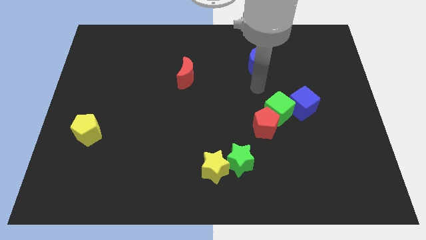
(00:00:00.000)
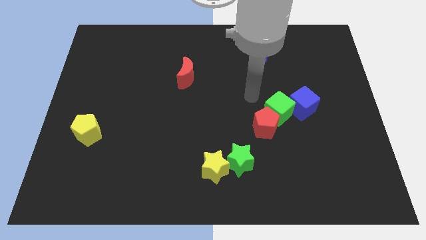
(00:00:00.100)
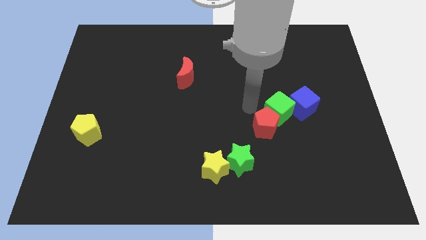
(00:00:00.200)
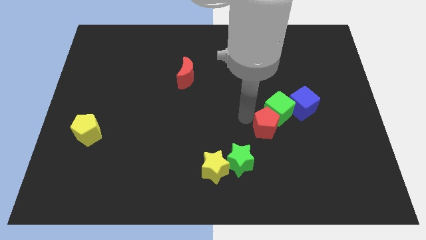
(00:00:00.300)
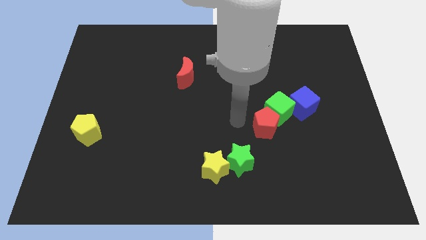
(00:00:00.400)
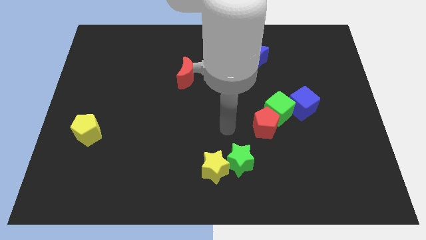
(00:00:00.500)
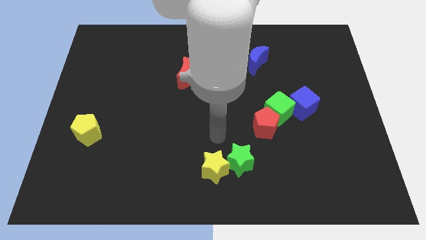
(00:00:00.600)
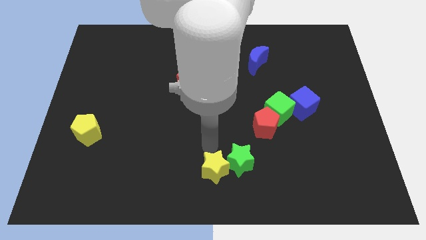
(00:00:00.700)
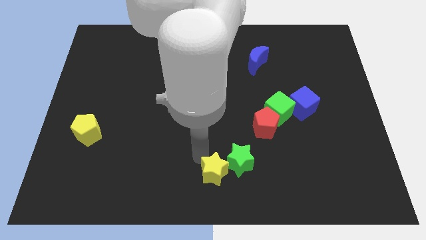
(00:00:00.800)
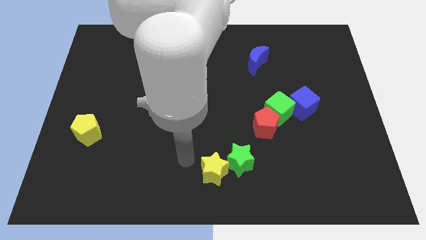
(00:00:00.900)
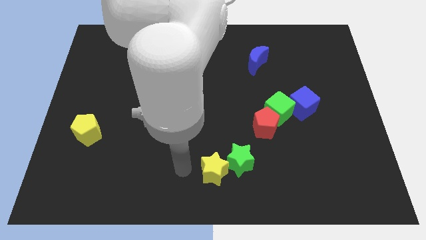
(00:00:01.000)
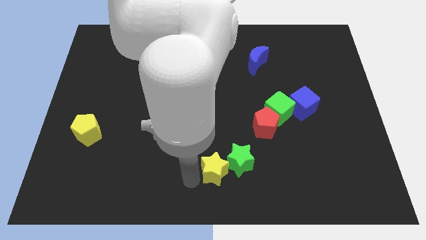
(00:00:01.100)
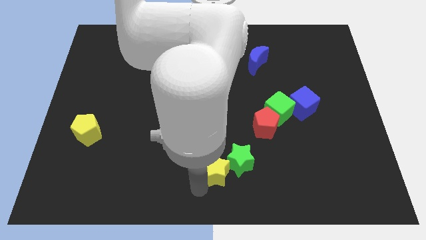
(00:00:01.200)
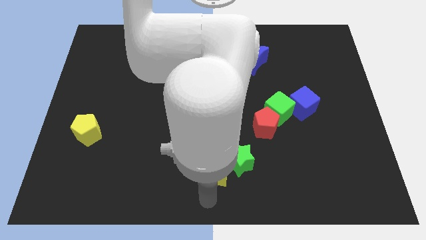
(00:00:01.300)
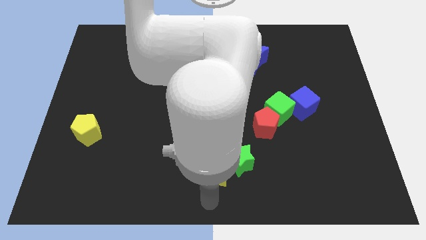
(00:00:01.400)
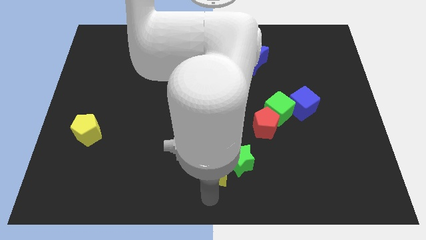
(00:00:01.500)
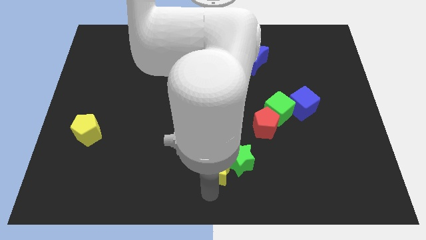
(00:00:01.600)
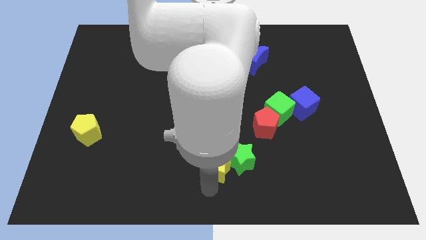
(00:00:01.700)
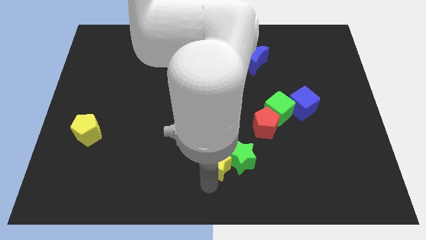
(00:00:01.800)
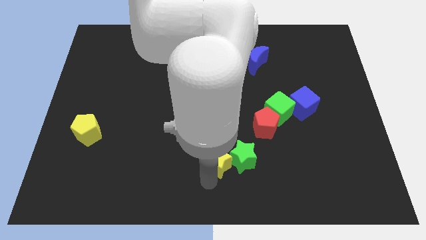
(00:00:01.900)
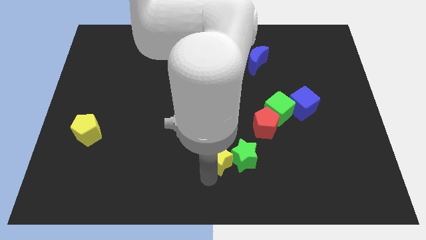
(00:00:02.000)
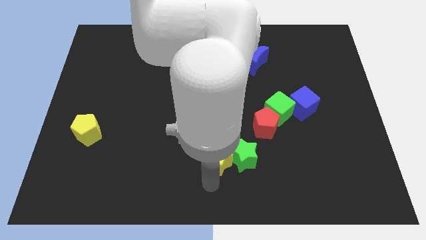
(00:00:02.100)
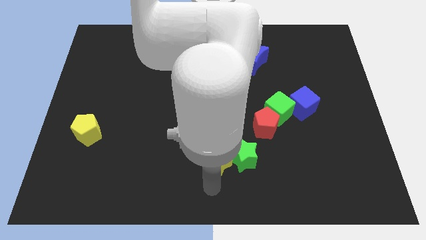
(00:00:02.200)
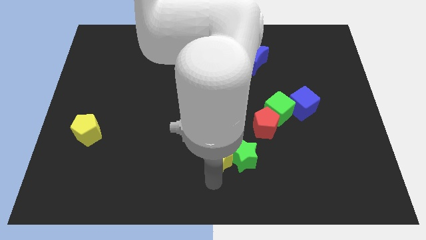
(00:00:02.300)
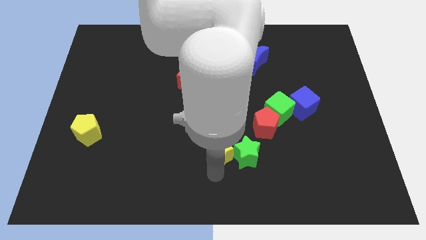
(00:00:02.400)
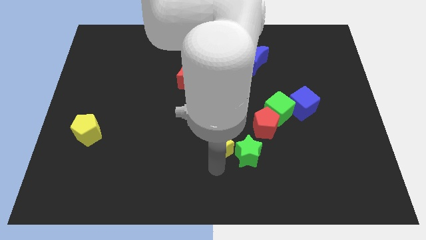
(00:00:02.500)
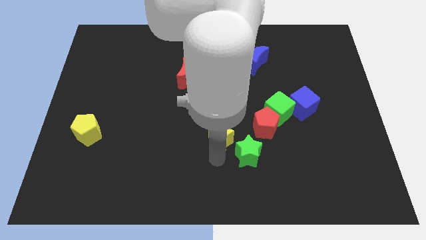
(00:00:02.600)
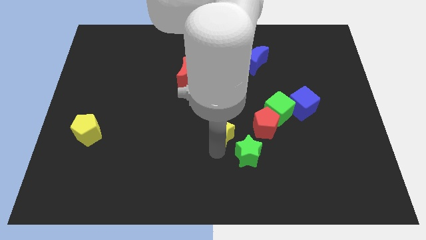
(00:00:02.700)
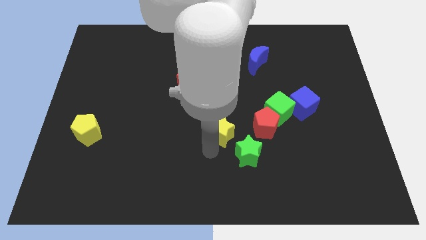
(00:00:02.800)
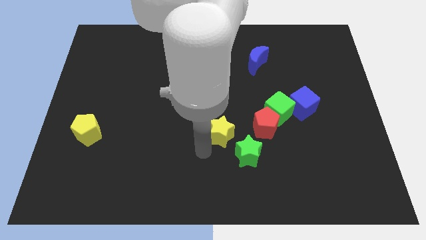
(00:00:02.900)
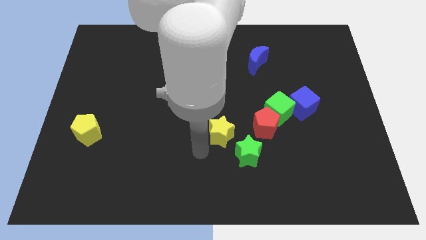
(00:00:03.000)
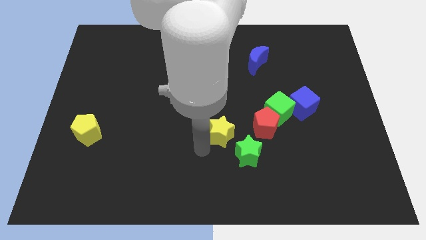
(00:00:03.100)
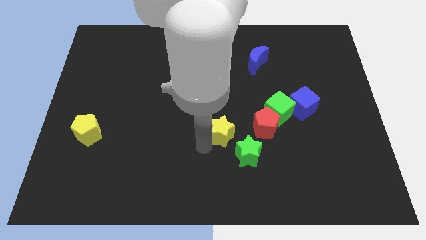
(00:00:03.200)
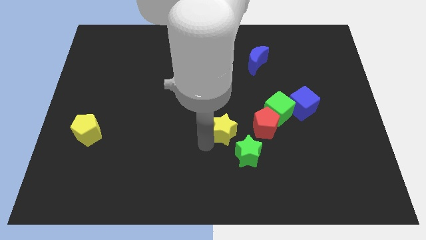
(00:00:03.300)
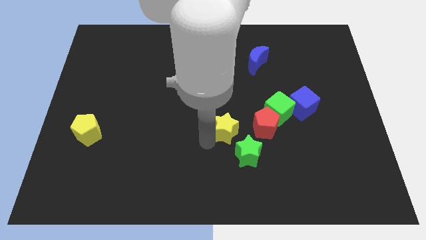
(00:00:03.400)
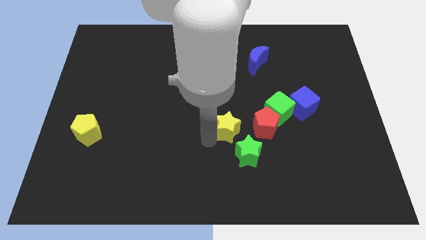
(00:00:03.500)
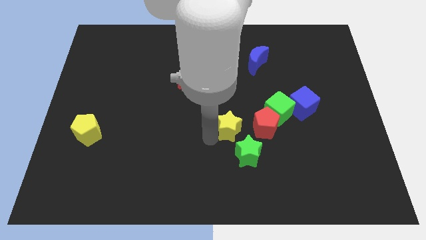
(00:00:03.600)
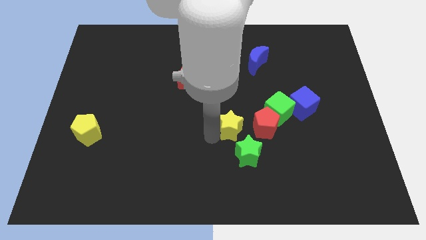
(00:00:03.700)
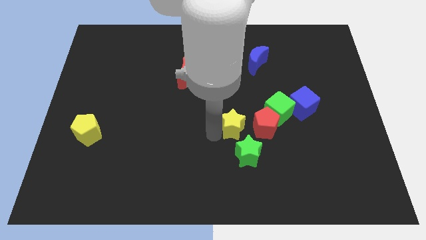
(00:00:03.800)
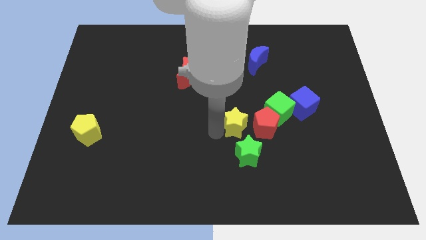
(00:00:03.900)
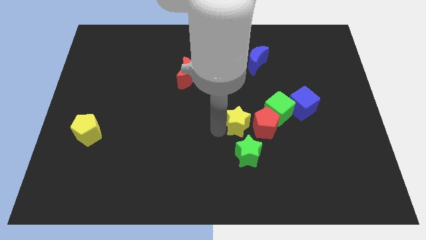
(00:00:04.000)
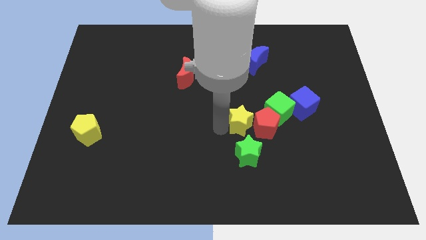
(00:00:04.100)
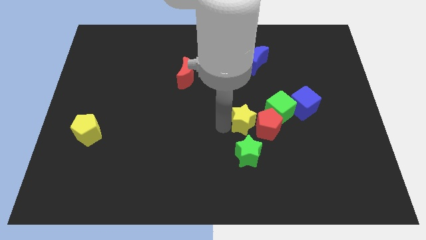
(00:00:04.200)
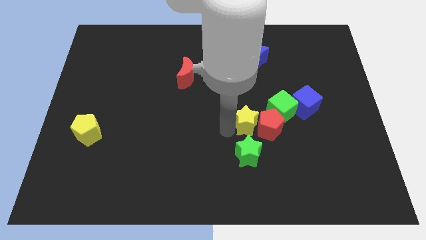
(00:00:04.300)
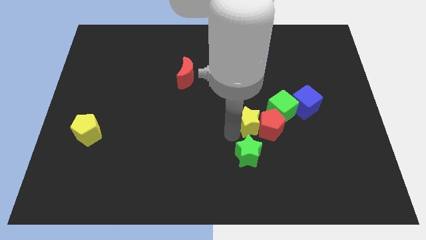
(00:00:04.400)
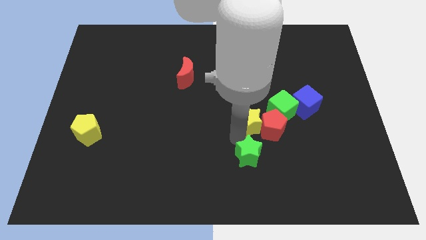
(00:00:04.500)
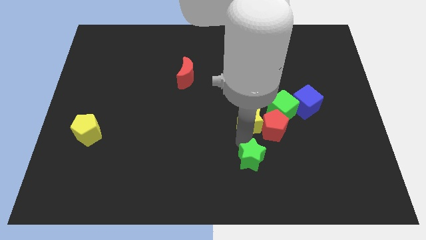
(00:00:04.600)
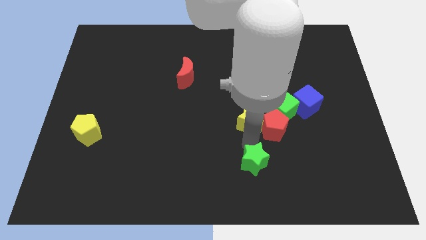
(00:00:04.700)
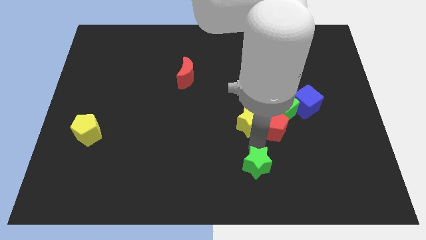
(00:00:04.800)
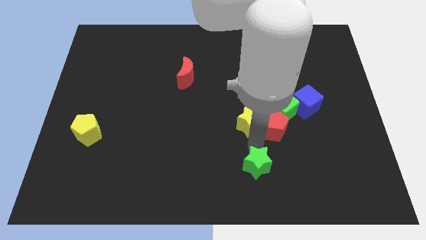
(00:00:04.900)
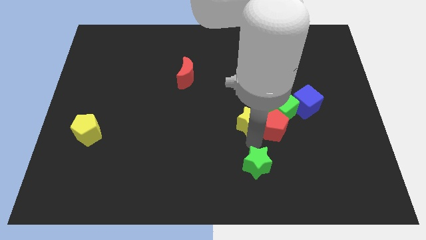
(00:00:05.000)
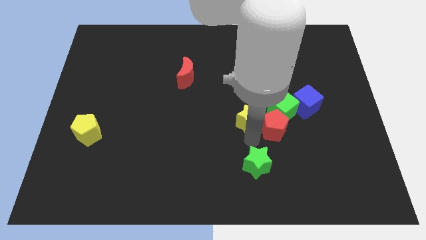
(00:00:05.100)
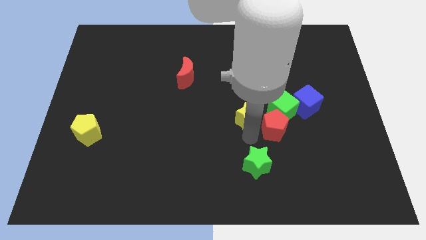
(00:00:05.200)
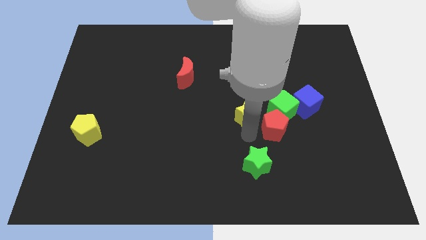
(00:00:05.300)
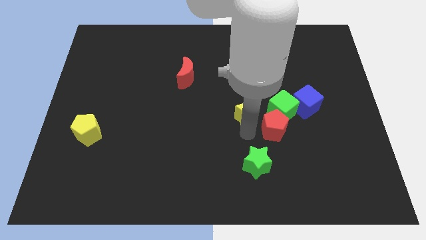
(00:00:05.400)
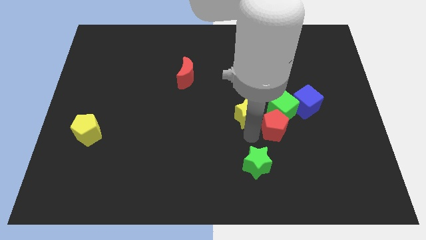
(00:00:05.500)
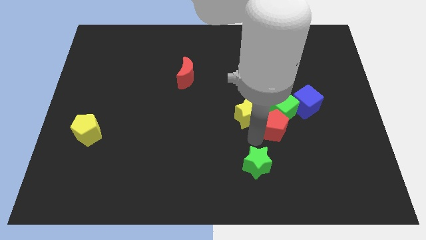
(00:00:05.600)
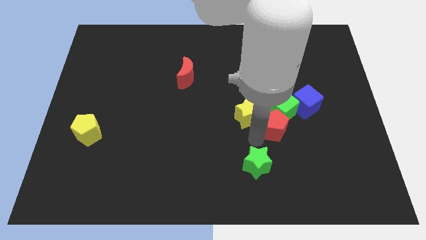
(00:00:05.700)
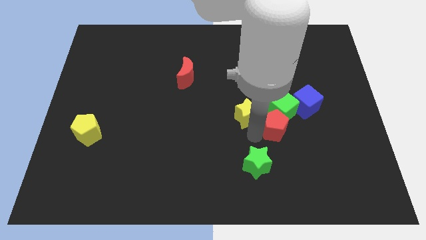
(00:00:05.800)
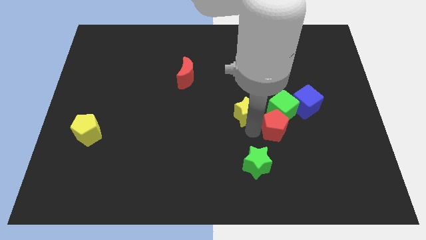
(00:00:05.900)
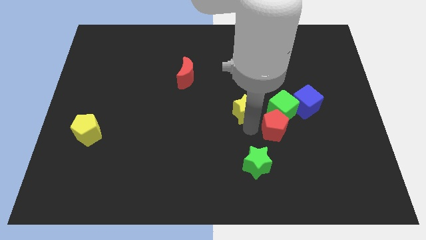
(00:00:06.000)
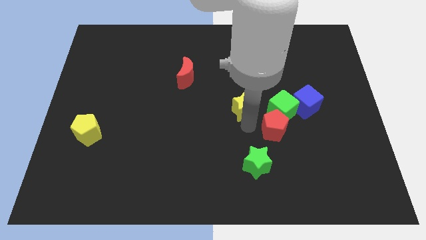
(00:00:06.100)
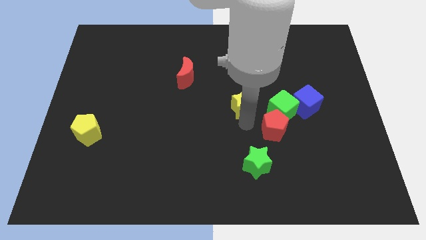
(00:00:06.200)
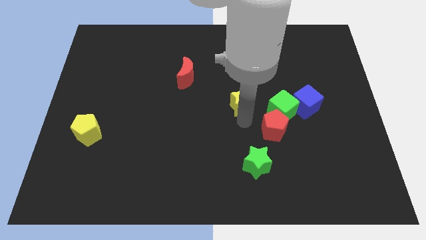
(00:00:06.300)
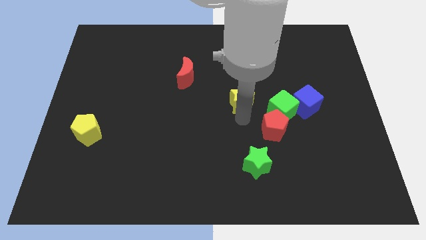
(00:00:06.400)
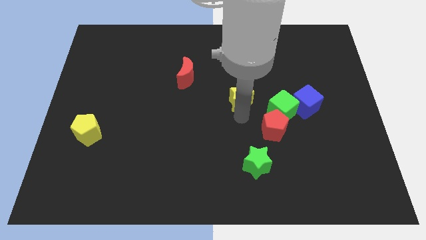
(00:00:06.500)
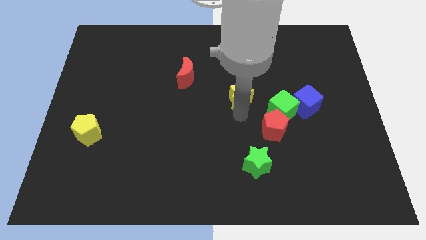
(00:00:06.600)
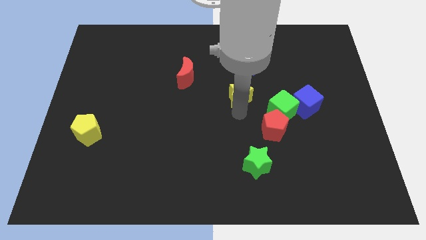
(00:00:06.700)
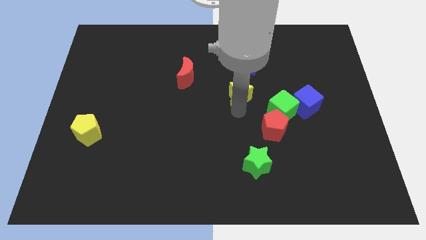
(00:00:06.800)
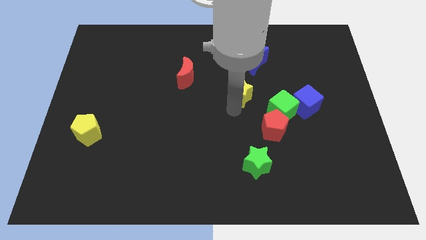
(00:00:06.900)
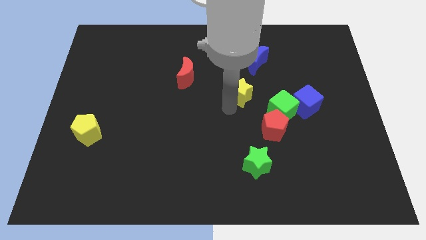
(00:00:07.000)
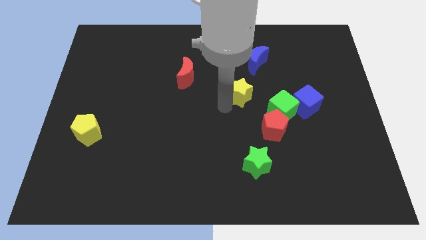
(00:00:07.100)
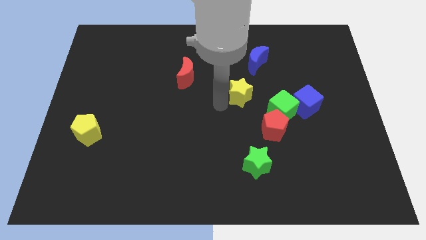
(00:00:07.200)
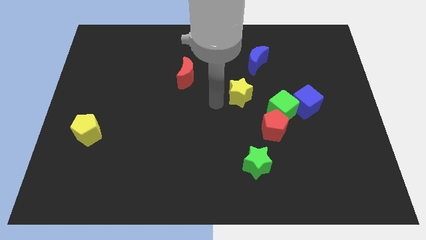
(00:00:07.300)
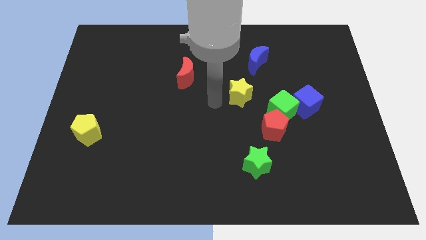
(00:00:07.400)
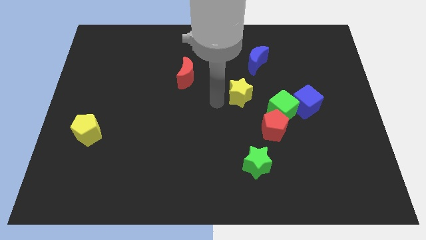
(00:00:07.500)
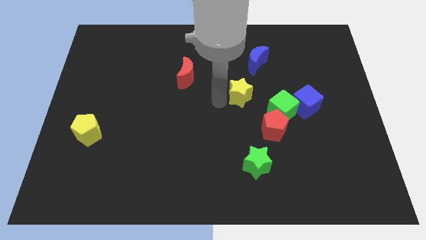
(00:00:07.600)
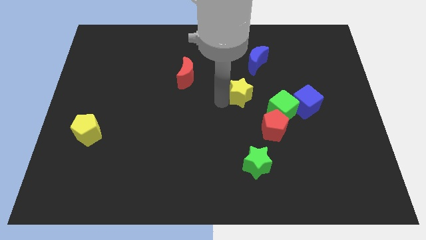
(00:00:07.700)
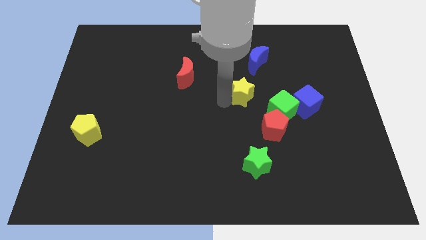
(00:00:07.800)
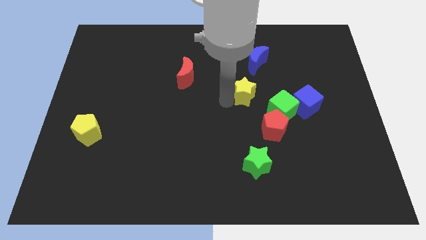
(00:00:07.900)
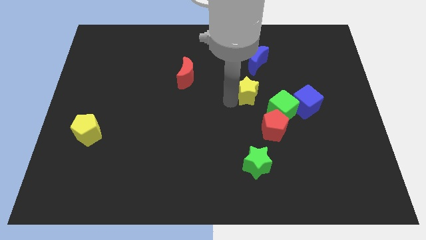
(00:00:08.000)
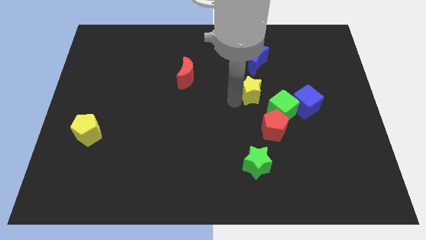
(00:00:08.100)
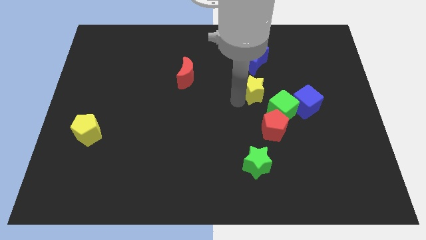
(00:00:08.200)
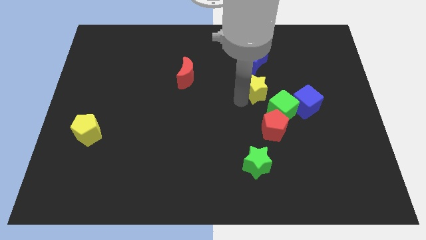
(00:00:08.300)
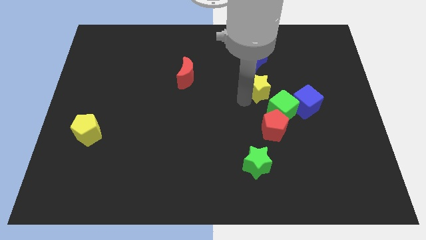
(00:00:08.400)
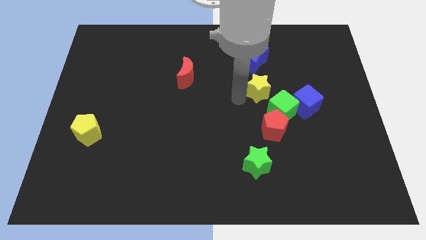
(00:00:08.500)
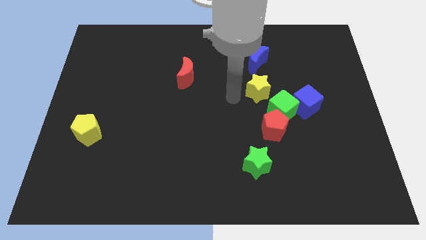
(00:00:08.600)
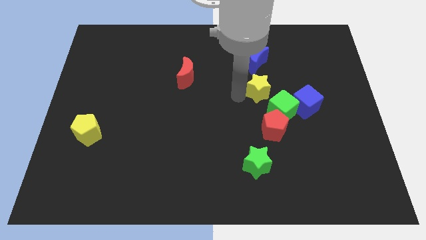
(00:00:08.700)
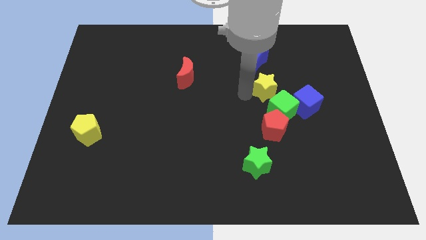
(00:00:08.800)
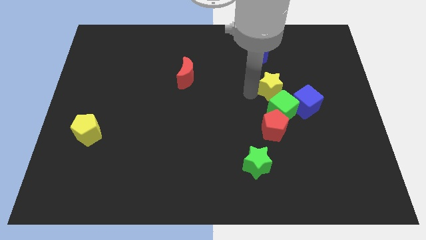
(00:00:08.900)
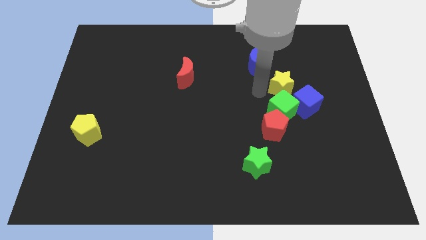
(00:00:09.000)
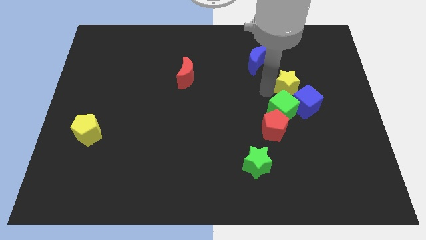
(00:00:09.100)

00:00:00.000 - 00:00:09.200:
move the yellow star to the top of the blue cube
